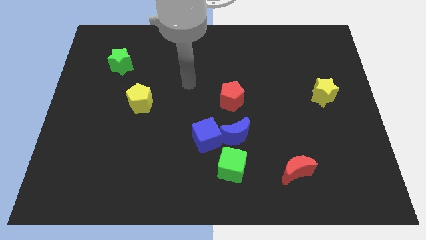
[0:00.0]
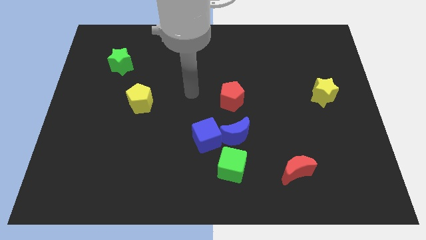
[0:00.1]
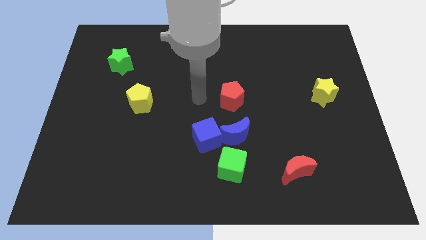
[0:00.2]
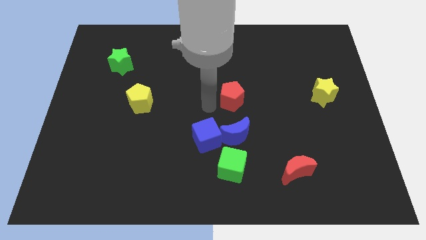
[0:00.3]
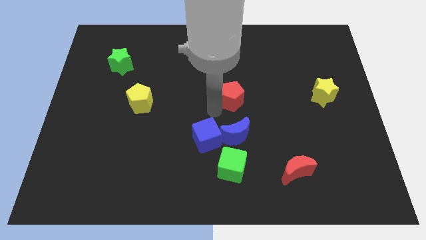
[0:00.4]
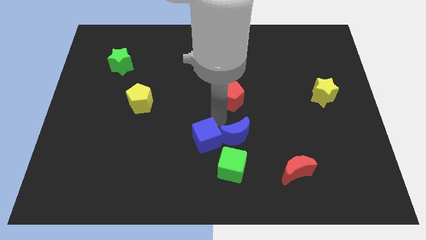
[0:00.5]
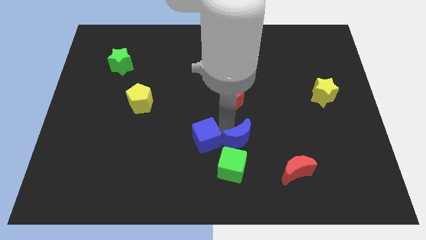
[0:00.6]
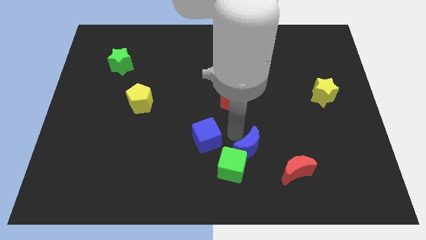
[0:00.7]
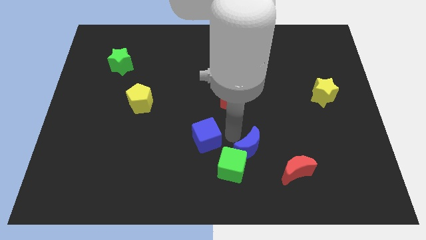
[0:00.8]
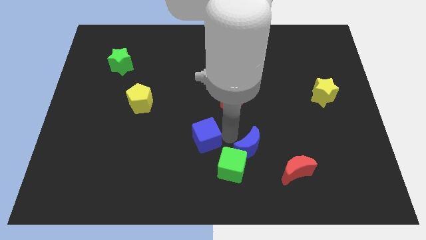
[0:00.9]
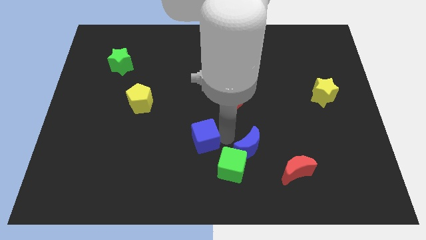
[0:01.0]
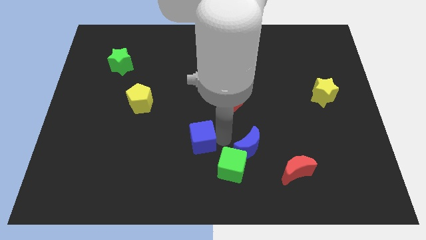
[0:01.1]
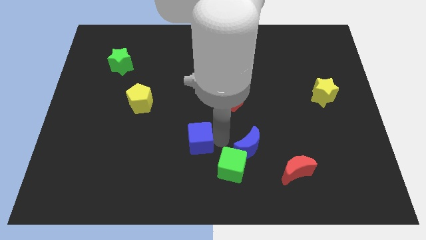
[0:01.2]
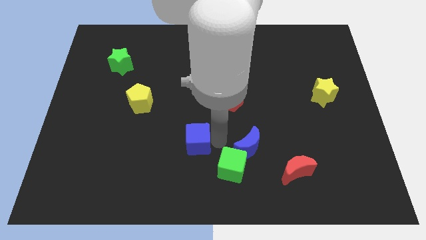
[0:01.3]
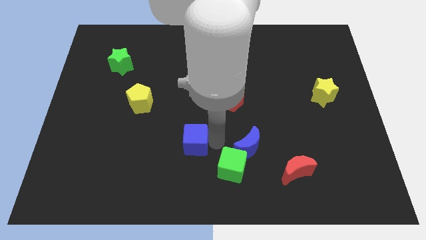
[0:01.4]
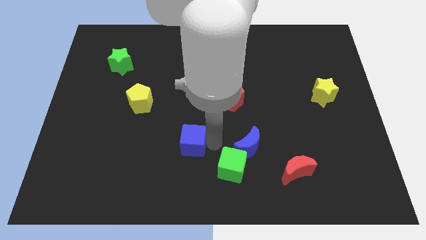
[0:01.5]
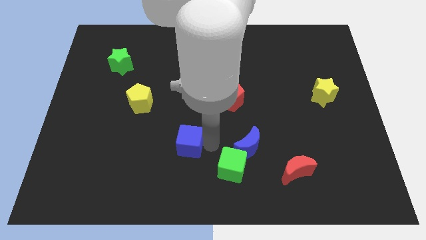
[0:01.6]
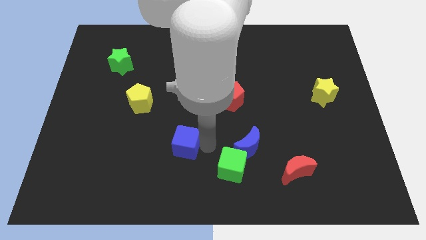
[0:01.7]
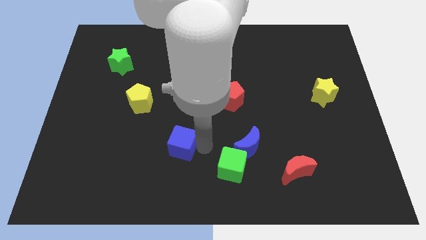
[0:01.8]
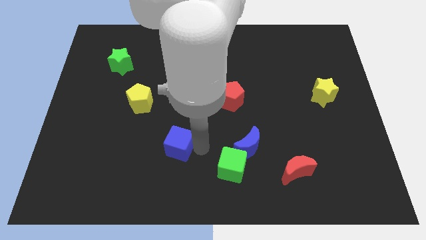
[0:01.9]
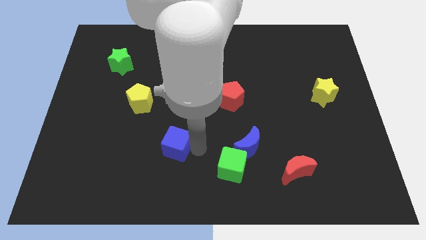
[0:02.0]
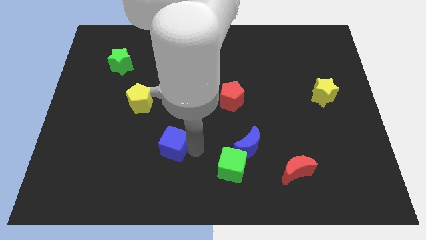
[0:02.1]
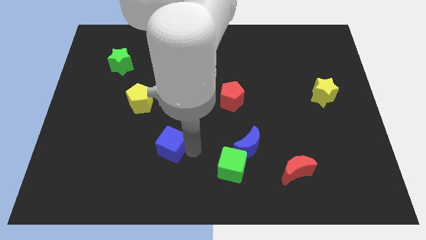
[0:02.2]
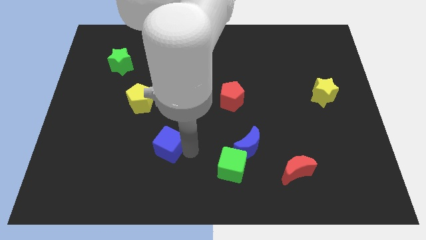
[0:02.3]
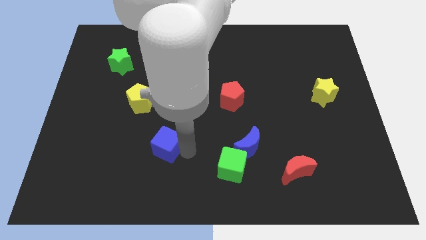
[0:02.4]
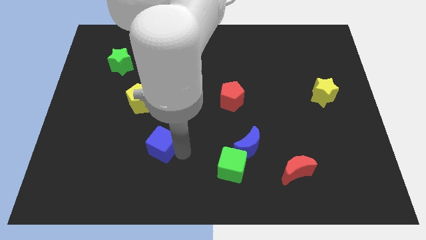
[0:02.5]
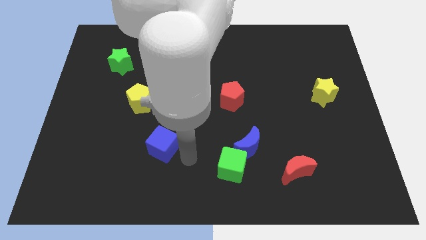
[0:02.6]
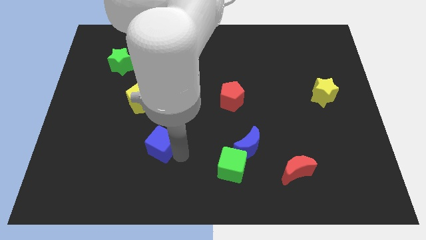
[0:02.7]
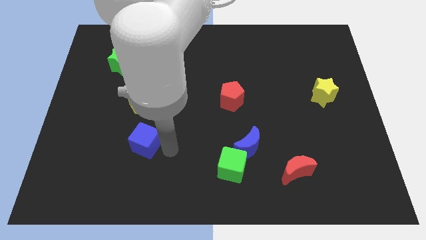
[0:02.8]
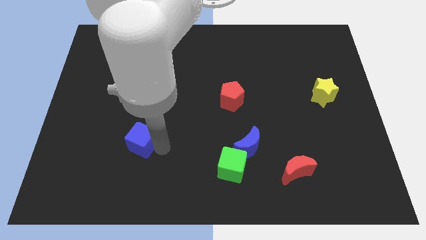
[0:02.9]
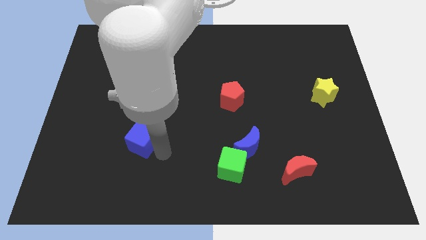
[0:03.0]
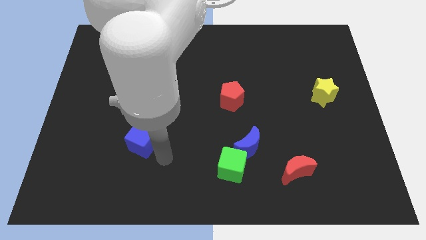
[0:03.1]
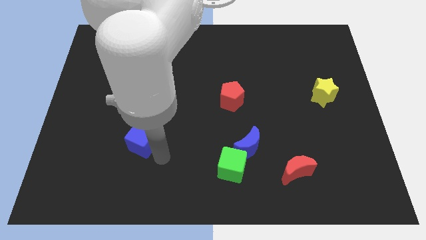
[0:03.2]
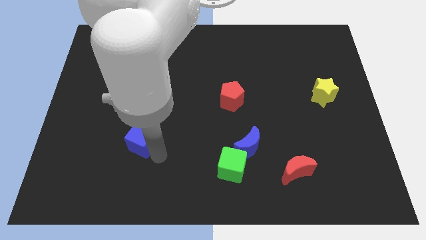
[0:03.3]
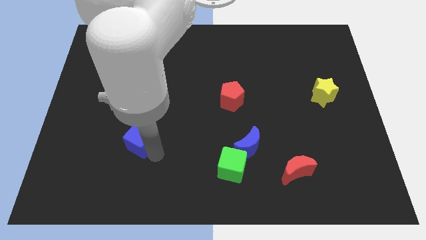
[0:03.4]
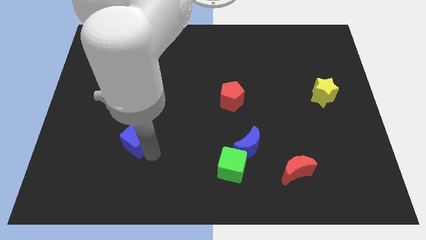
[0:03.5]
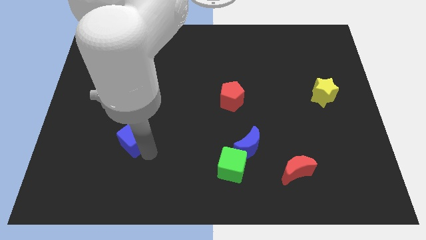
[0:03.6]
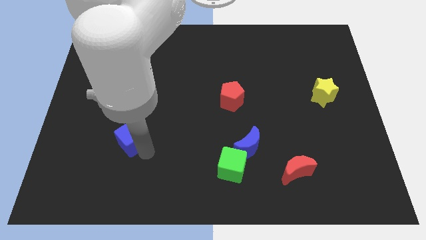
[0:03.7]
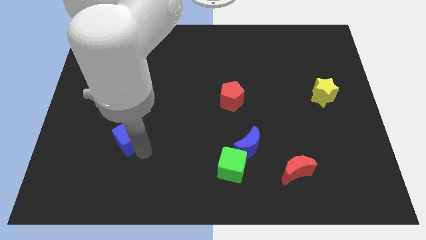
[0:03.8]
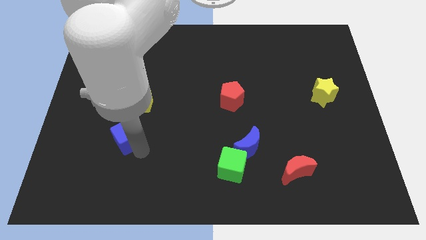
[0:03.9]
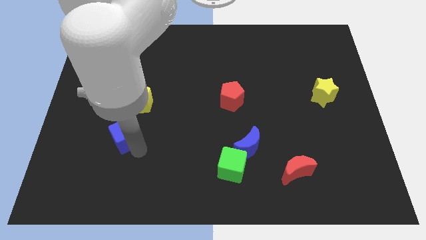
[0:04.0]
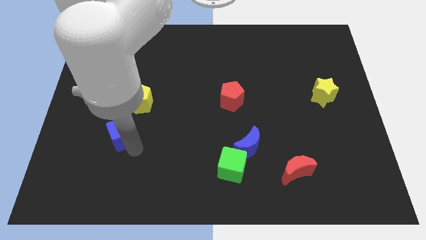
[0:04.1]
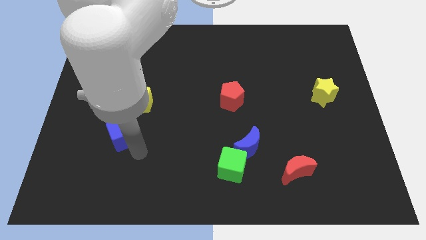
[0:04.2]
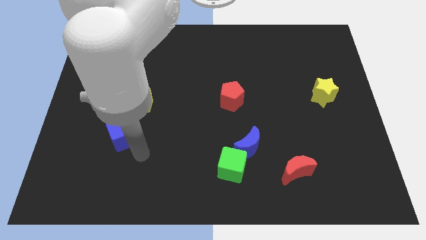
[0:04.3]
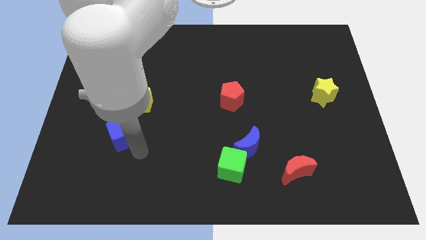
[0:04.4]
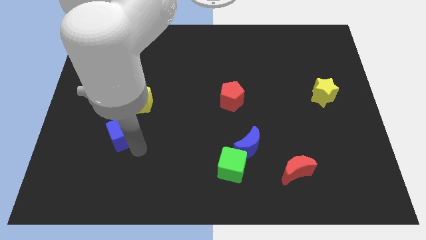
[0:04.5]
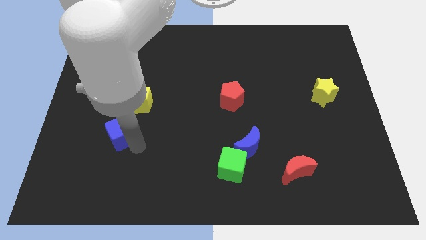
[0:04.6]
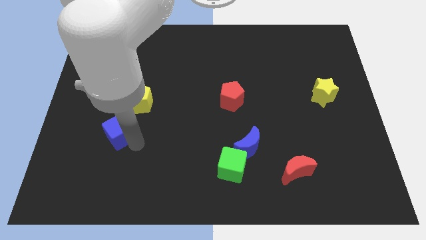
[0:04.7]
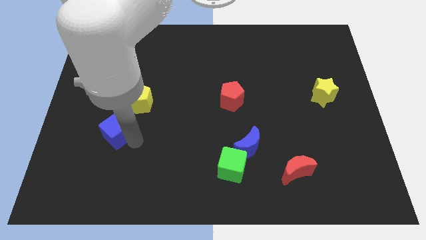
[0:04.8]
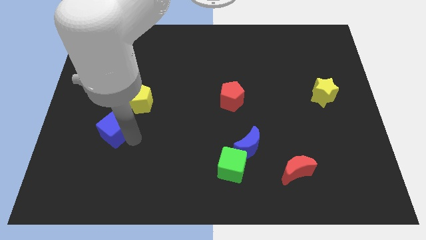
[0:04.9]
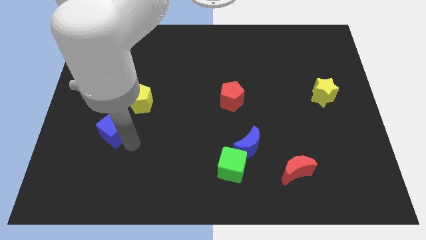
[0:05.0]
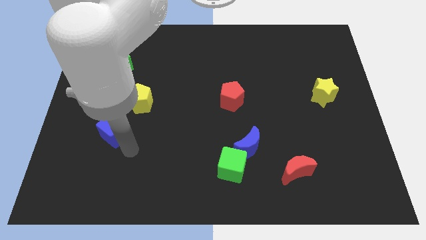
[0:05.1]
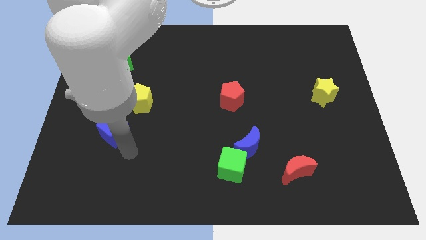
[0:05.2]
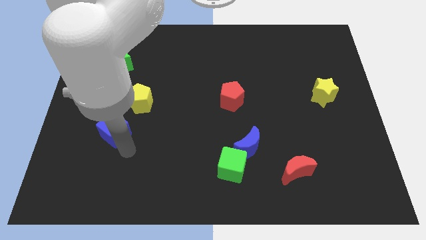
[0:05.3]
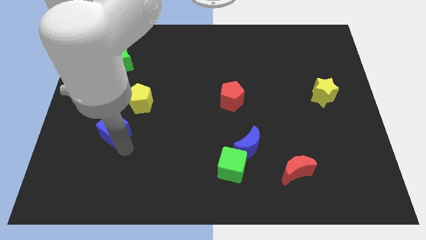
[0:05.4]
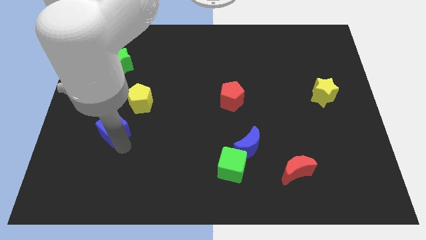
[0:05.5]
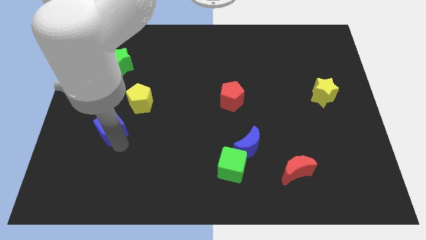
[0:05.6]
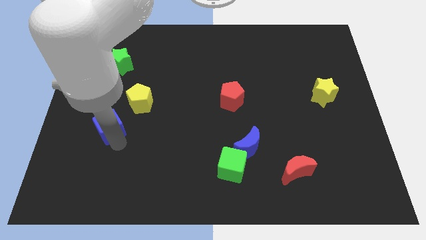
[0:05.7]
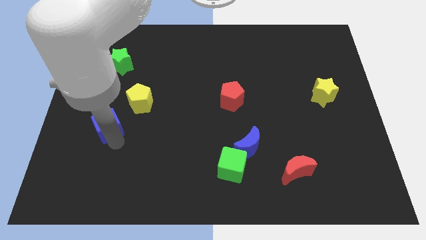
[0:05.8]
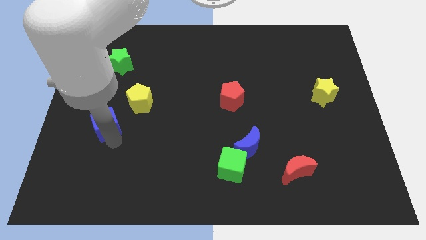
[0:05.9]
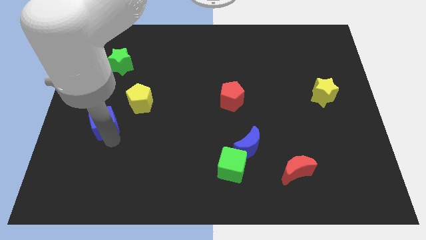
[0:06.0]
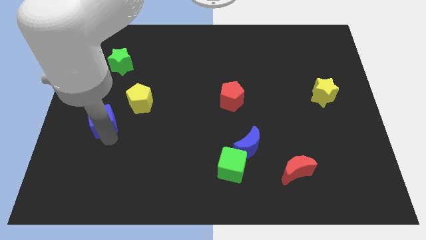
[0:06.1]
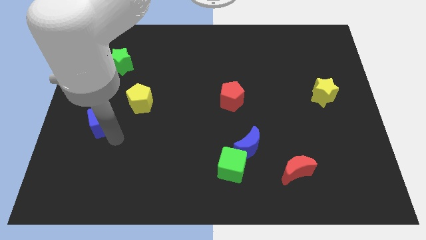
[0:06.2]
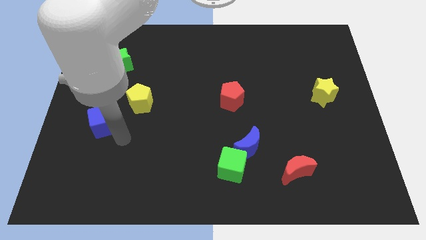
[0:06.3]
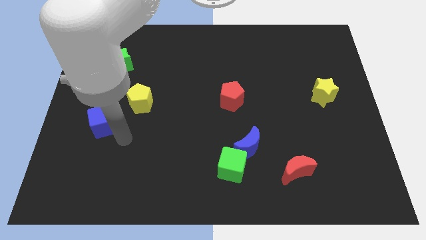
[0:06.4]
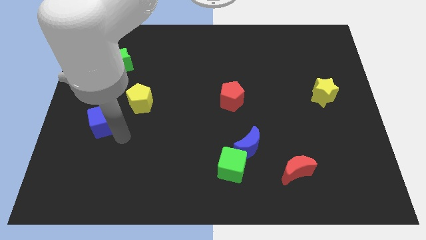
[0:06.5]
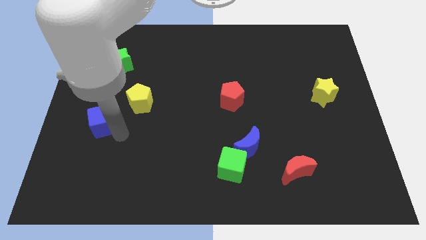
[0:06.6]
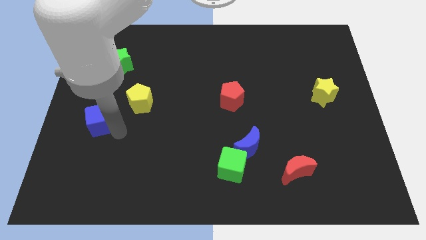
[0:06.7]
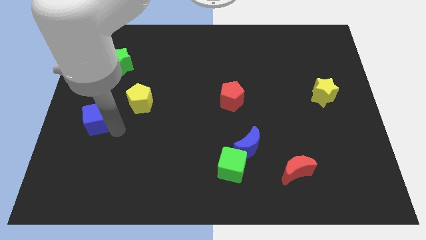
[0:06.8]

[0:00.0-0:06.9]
move the blue cube to the center left
